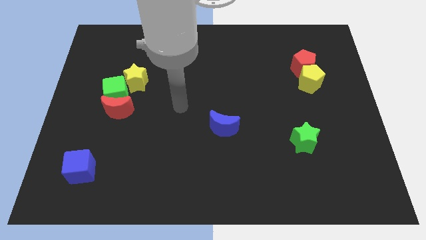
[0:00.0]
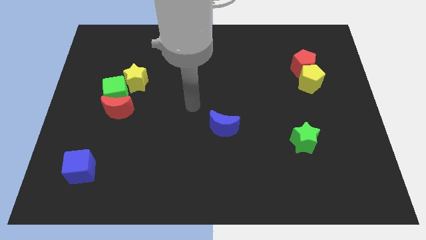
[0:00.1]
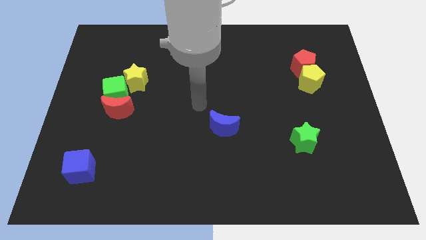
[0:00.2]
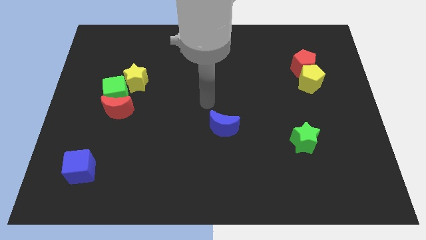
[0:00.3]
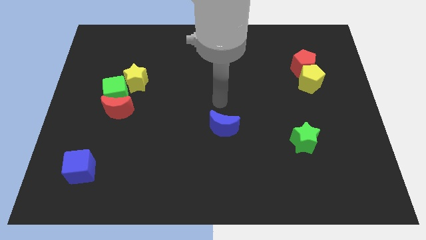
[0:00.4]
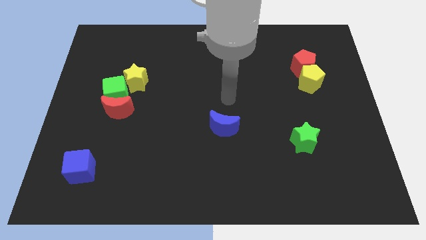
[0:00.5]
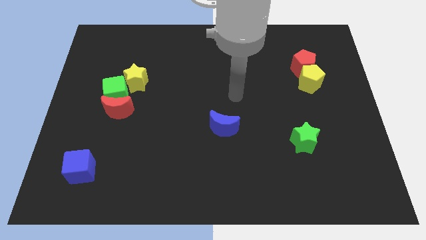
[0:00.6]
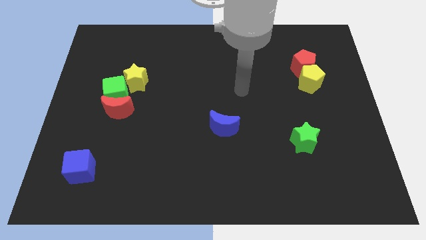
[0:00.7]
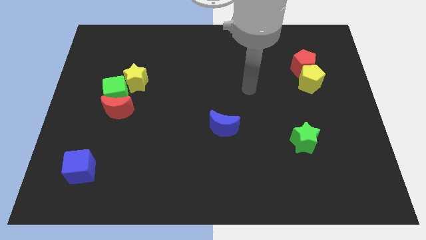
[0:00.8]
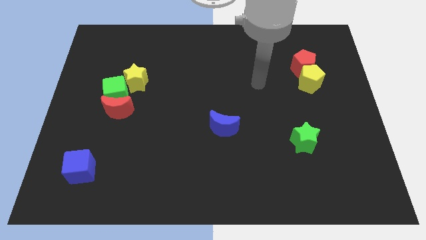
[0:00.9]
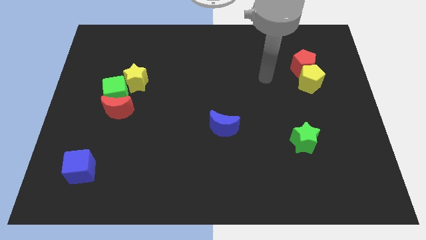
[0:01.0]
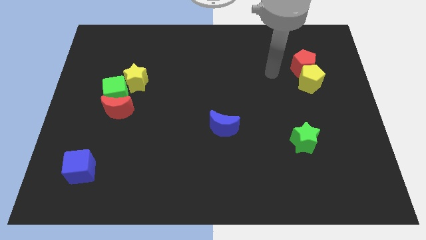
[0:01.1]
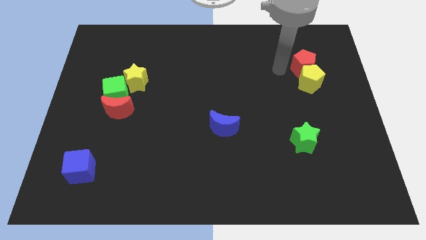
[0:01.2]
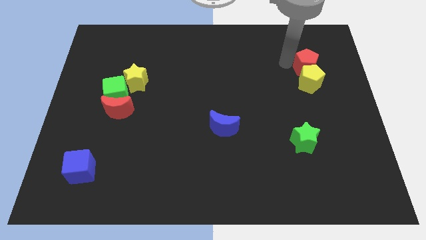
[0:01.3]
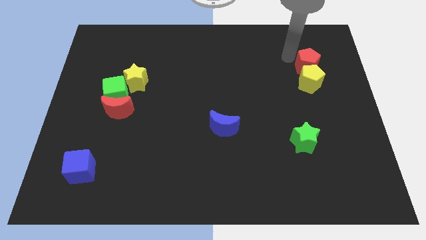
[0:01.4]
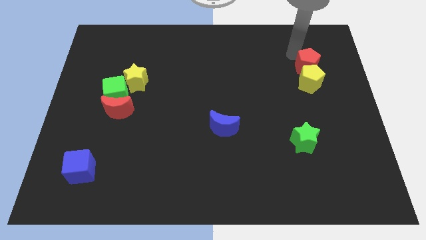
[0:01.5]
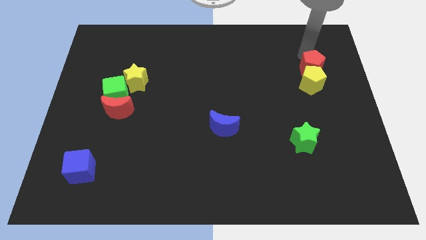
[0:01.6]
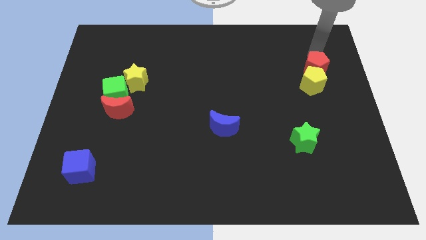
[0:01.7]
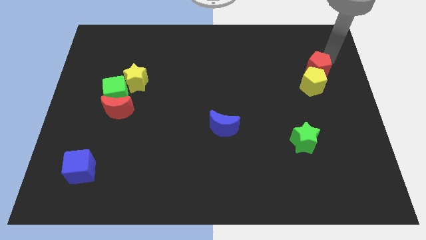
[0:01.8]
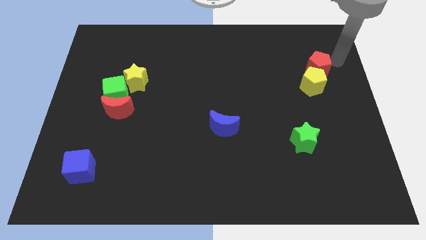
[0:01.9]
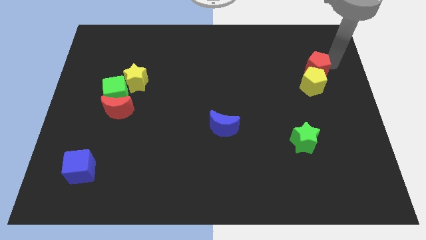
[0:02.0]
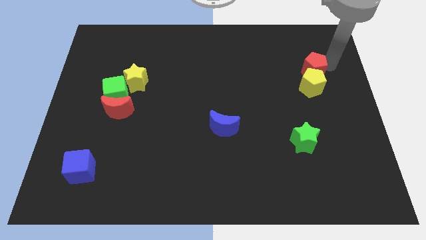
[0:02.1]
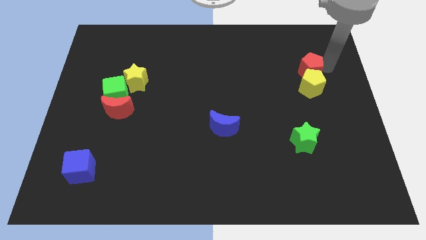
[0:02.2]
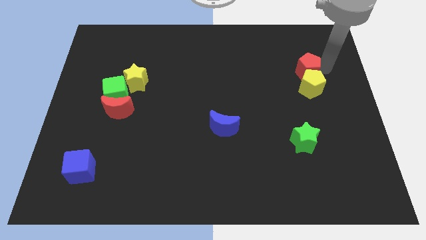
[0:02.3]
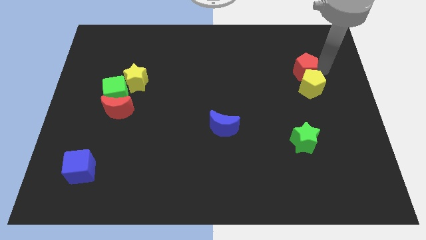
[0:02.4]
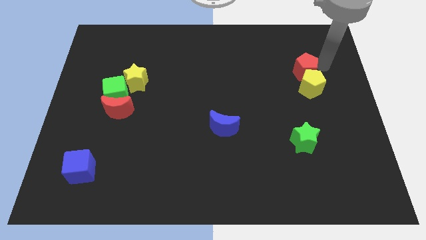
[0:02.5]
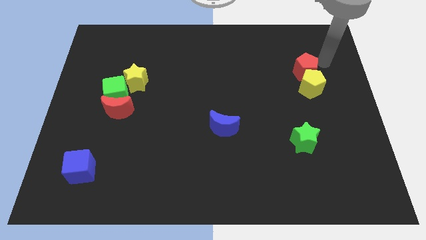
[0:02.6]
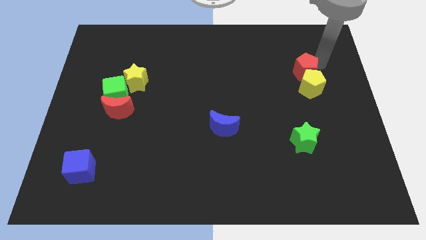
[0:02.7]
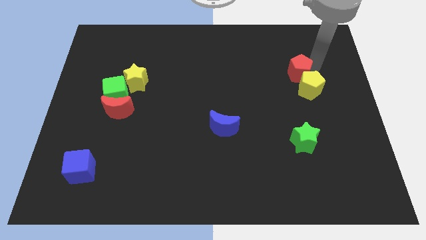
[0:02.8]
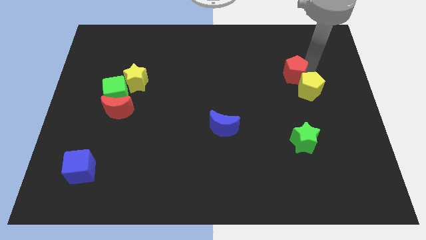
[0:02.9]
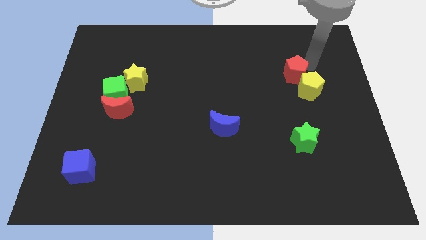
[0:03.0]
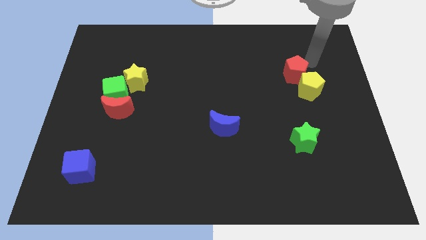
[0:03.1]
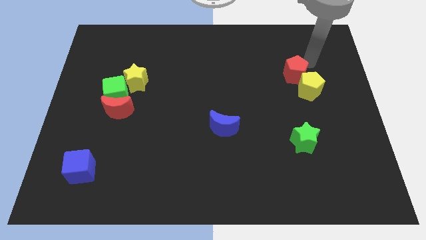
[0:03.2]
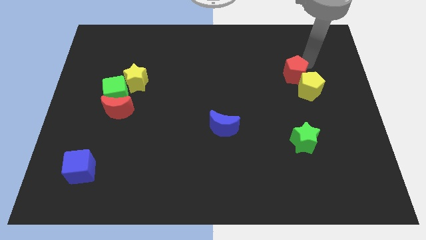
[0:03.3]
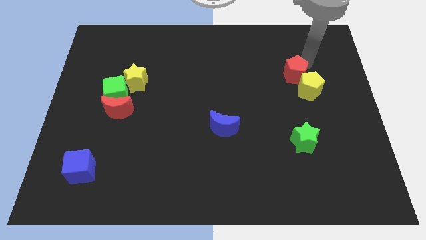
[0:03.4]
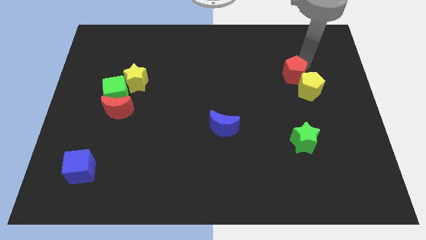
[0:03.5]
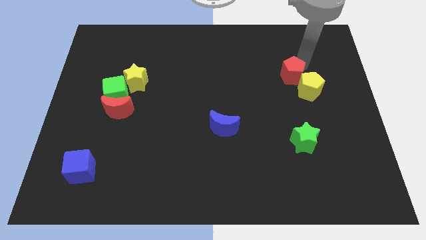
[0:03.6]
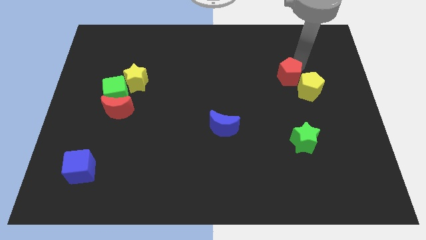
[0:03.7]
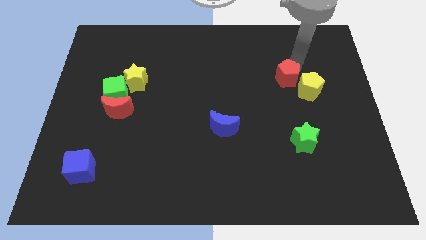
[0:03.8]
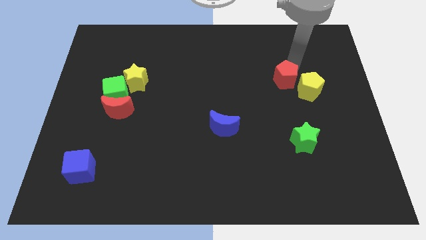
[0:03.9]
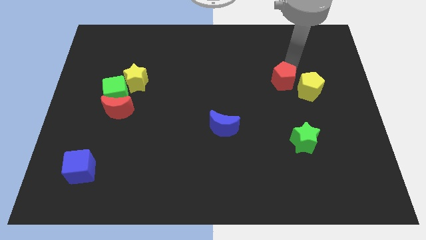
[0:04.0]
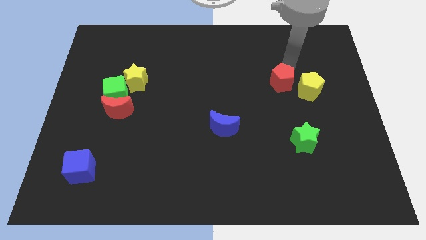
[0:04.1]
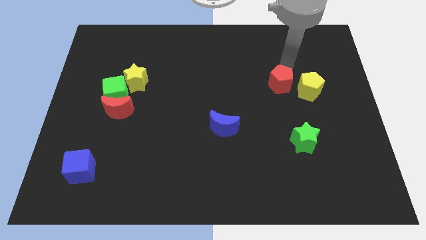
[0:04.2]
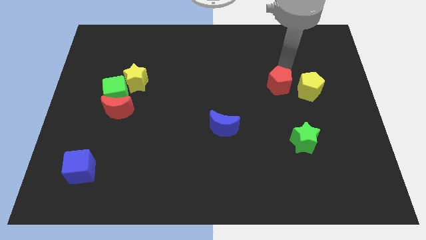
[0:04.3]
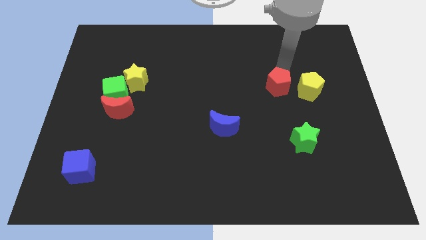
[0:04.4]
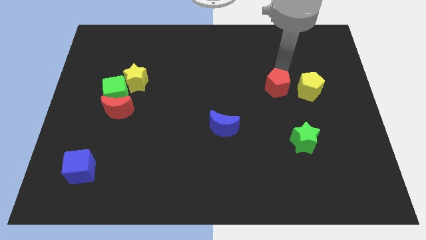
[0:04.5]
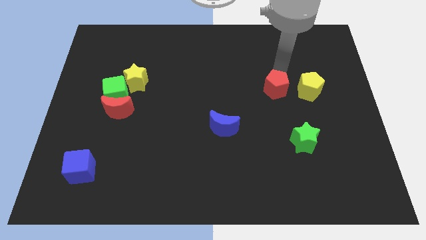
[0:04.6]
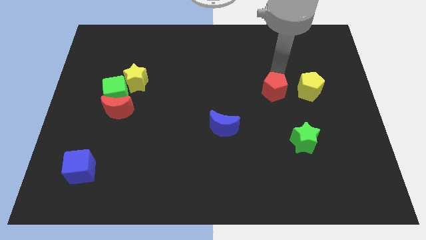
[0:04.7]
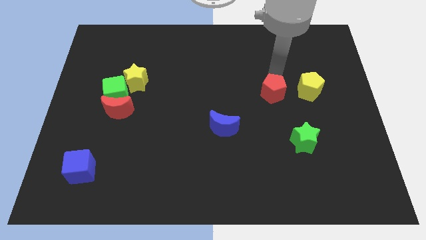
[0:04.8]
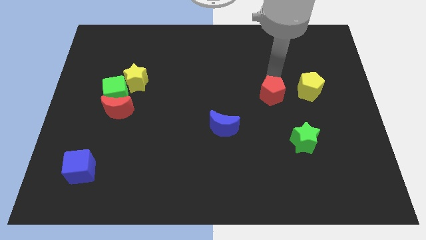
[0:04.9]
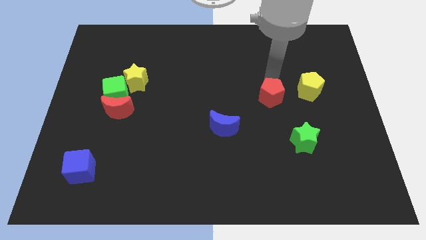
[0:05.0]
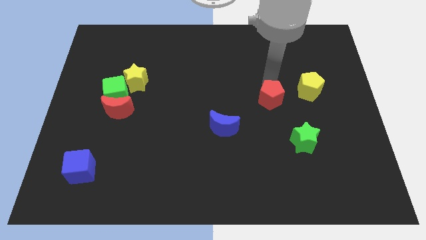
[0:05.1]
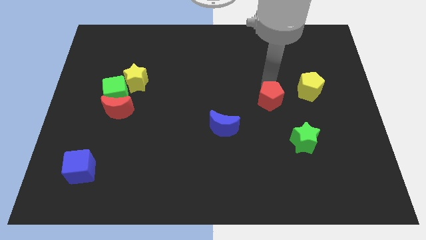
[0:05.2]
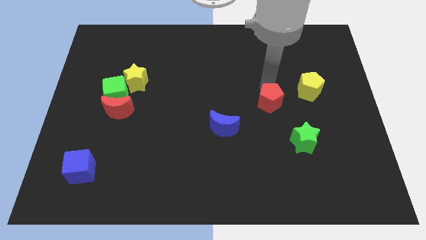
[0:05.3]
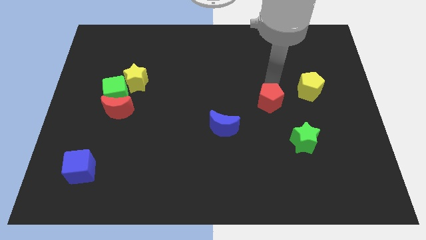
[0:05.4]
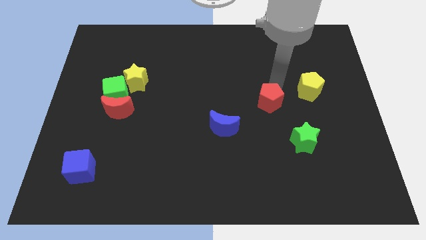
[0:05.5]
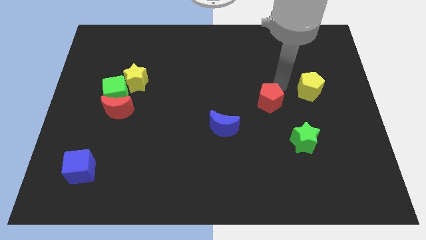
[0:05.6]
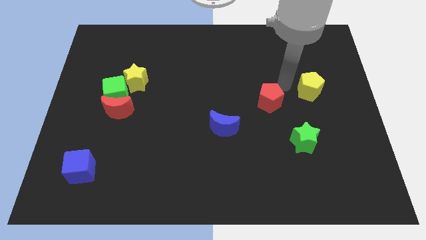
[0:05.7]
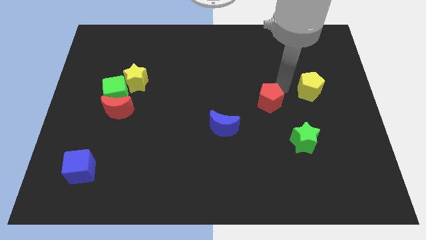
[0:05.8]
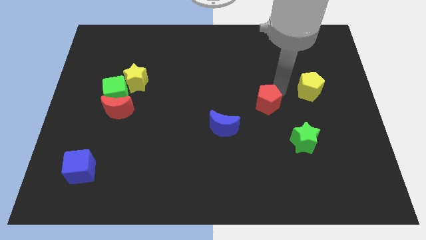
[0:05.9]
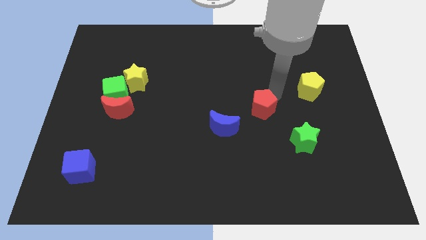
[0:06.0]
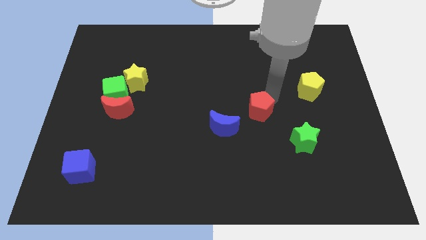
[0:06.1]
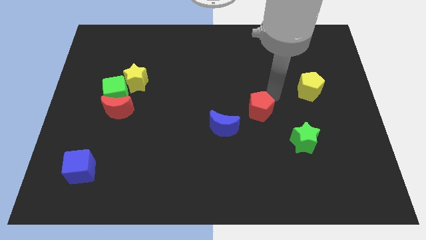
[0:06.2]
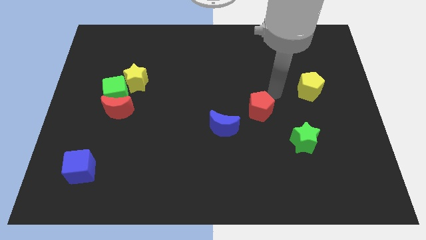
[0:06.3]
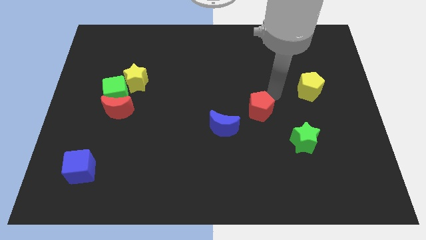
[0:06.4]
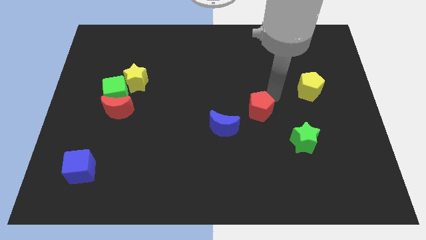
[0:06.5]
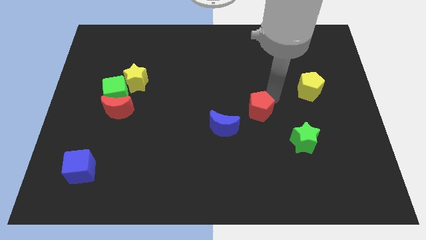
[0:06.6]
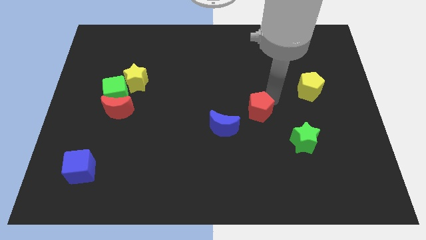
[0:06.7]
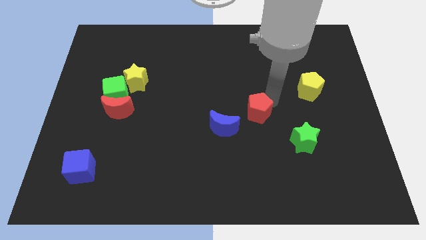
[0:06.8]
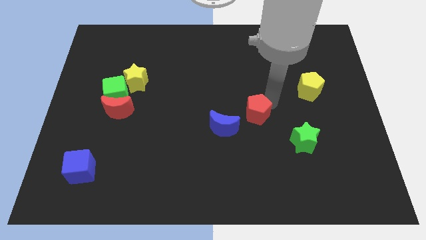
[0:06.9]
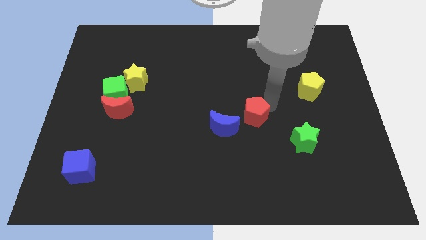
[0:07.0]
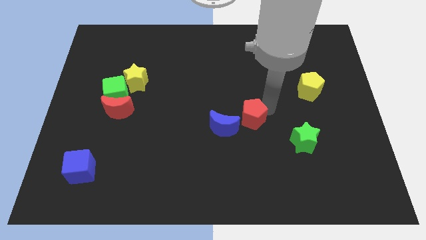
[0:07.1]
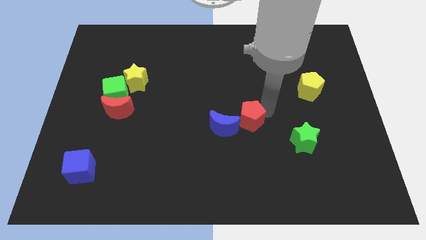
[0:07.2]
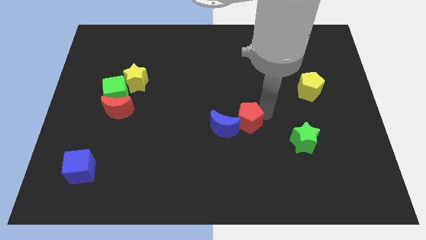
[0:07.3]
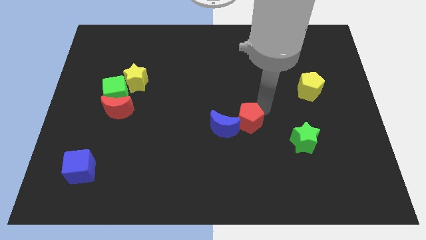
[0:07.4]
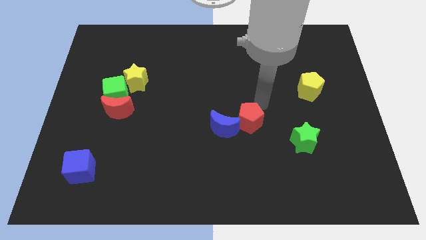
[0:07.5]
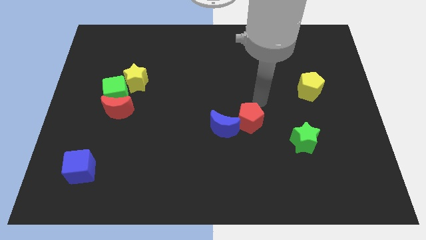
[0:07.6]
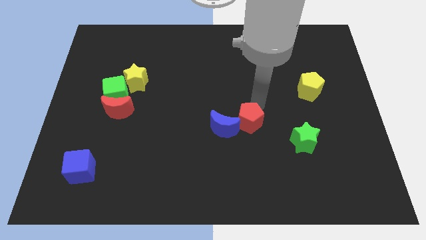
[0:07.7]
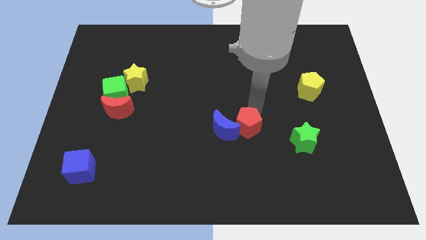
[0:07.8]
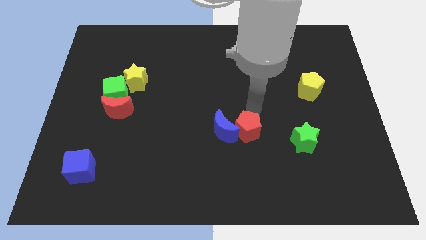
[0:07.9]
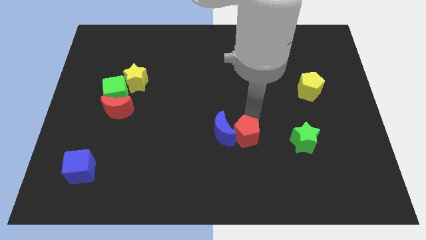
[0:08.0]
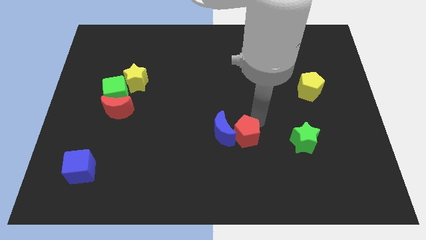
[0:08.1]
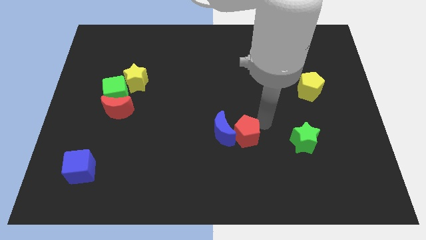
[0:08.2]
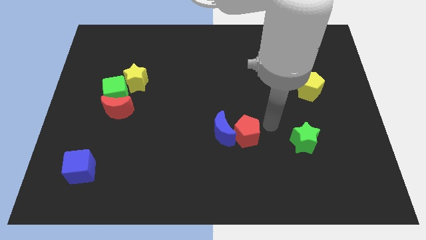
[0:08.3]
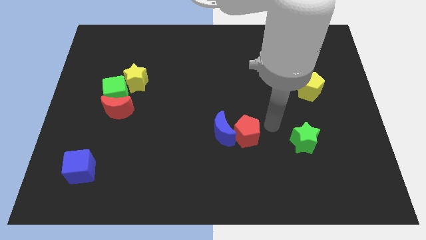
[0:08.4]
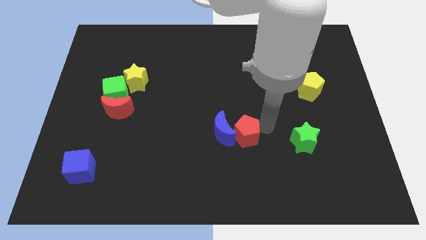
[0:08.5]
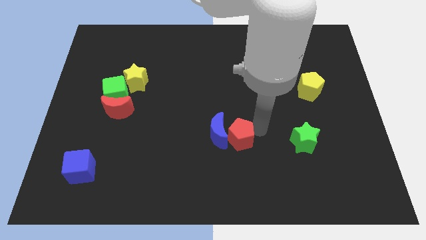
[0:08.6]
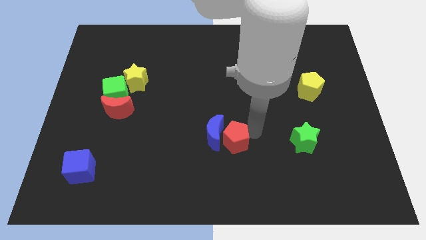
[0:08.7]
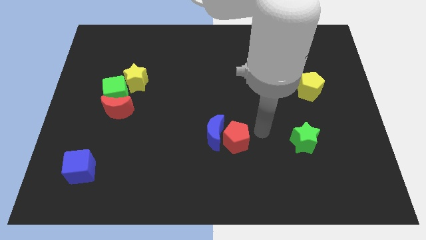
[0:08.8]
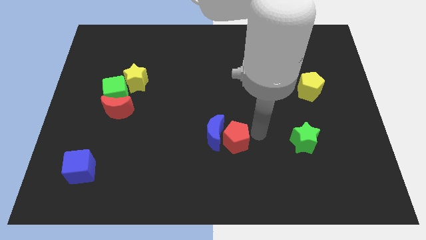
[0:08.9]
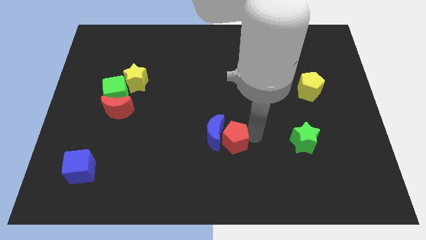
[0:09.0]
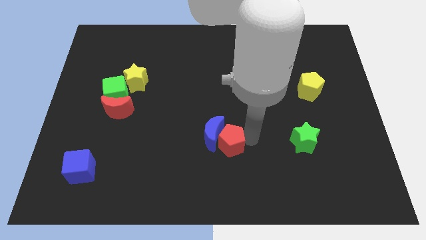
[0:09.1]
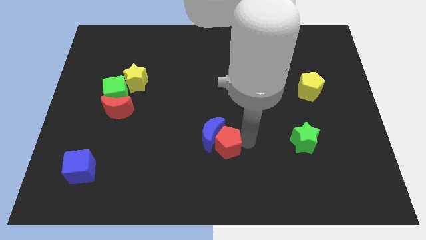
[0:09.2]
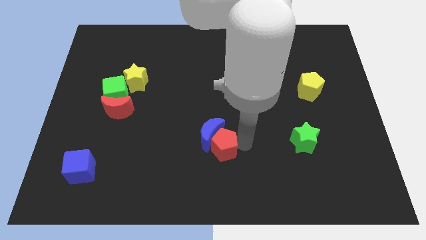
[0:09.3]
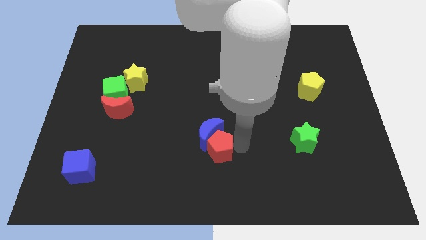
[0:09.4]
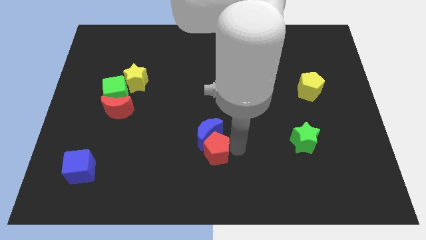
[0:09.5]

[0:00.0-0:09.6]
slide the red pentagon to the bottom left of the blue moon
